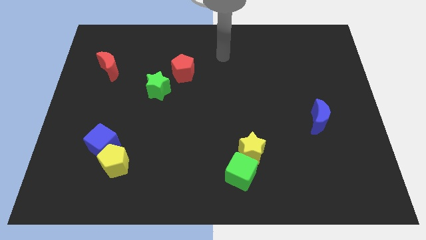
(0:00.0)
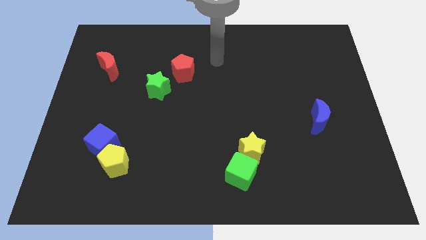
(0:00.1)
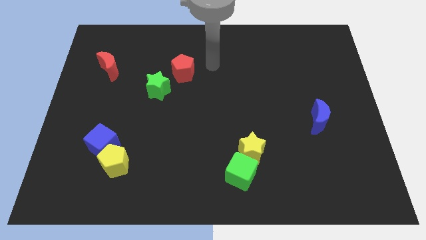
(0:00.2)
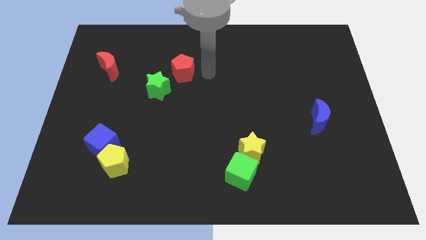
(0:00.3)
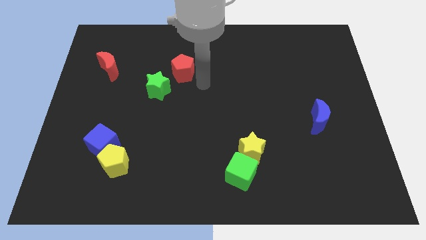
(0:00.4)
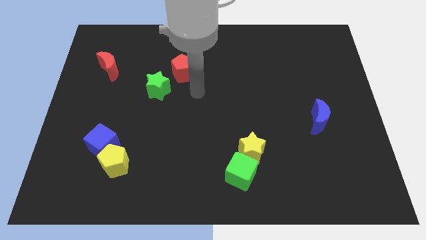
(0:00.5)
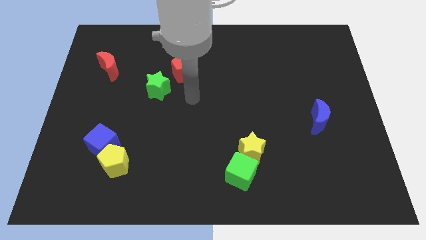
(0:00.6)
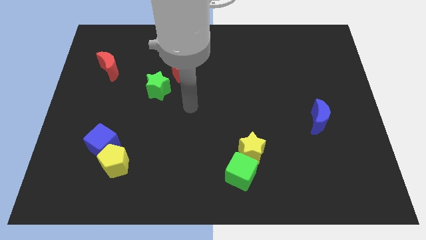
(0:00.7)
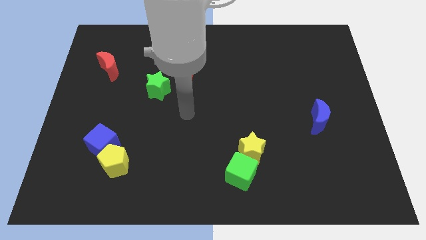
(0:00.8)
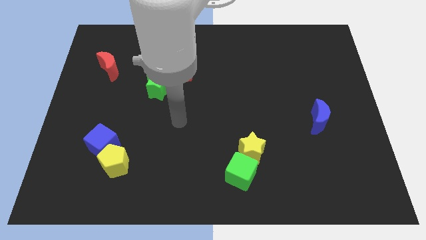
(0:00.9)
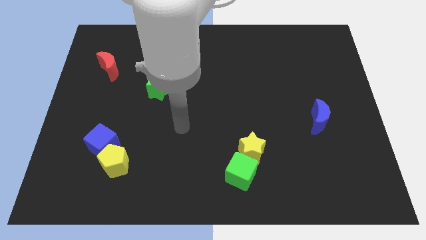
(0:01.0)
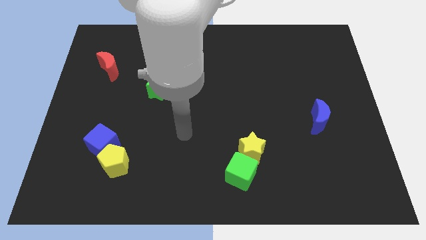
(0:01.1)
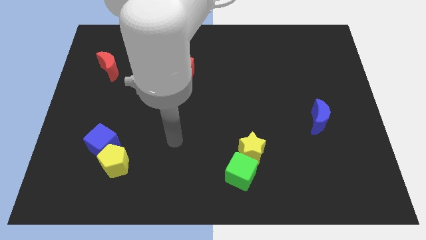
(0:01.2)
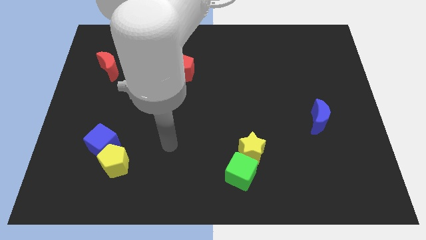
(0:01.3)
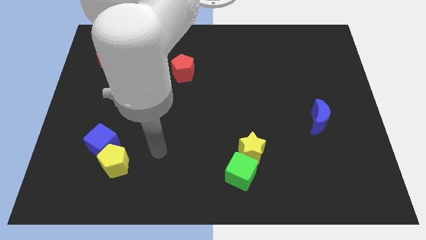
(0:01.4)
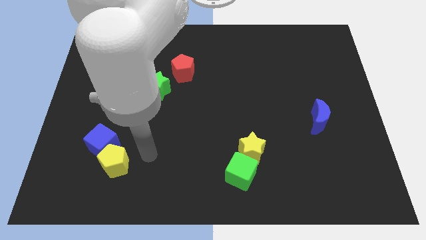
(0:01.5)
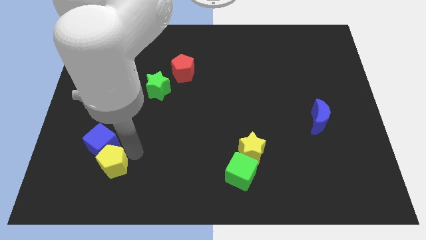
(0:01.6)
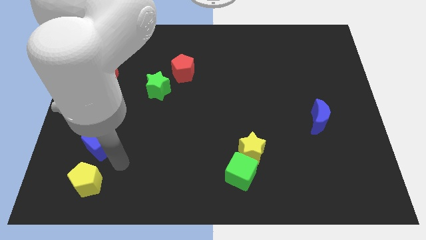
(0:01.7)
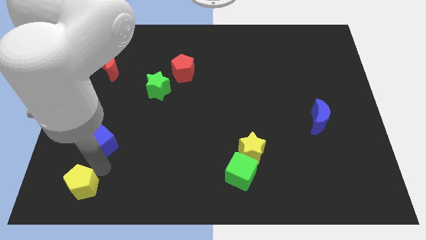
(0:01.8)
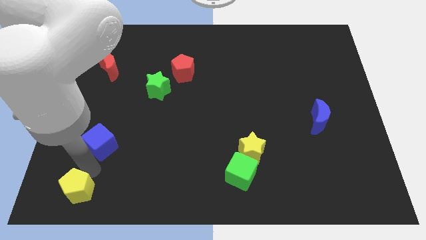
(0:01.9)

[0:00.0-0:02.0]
move the blue cube away from the yellow pentagon

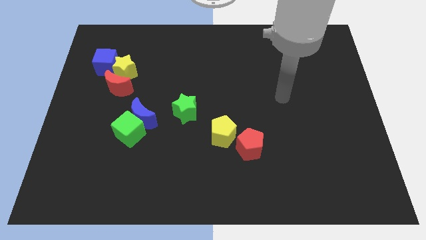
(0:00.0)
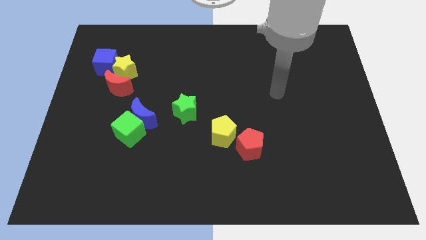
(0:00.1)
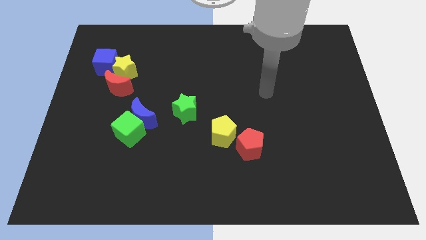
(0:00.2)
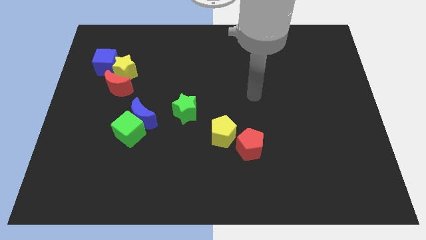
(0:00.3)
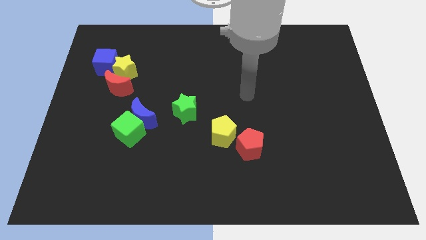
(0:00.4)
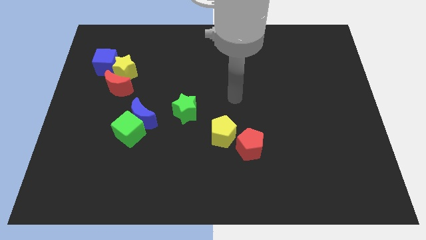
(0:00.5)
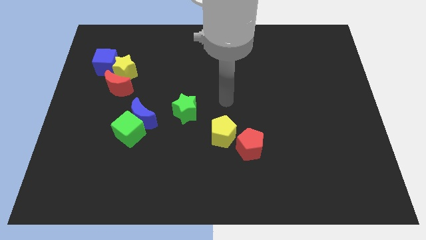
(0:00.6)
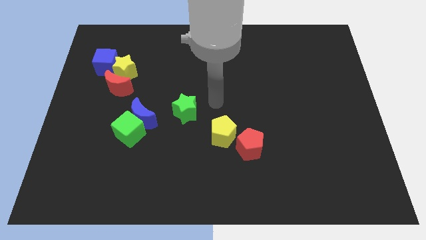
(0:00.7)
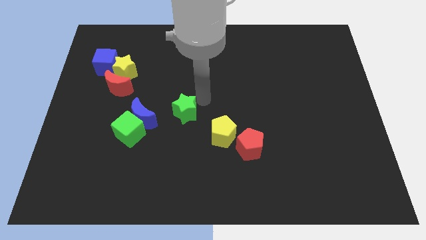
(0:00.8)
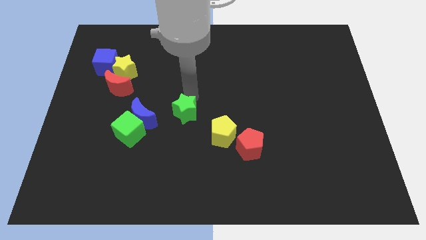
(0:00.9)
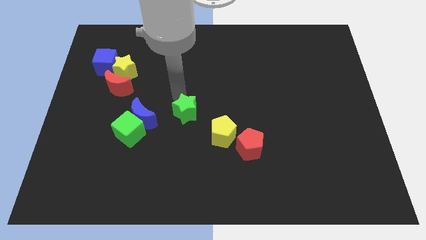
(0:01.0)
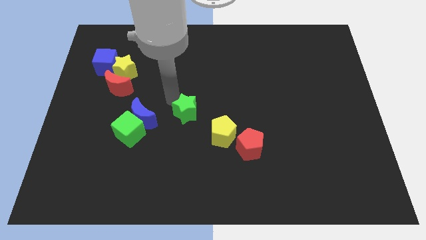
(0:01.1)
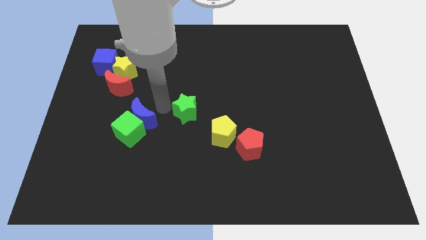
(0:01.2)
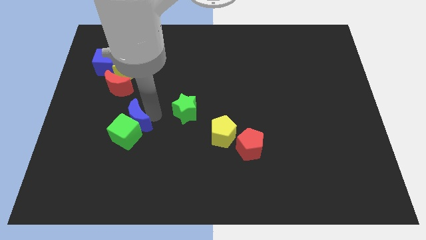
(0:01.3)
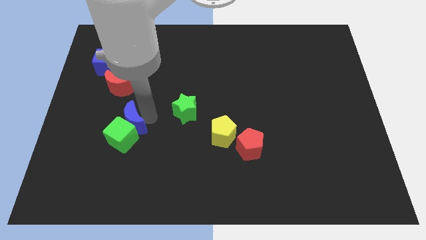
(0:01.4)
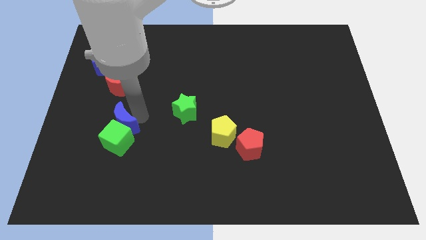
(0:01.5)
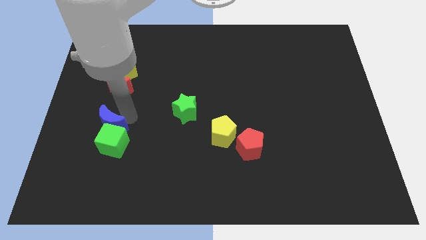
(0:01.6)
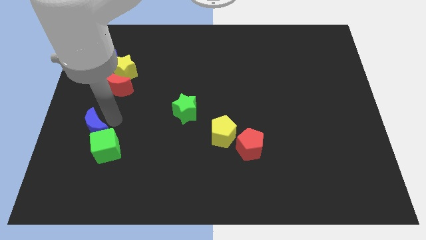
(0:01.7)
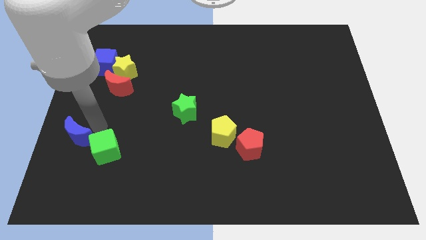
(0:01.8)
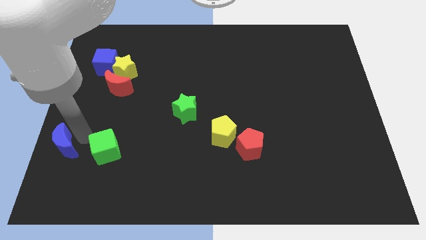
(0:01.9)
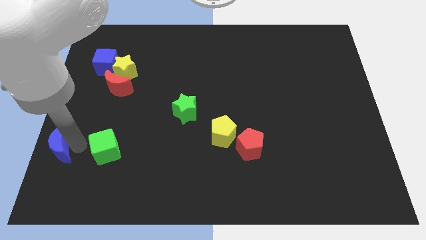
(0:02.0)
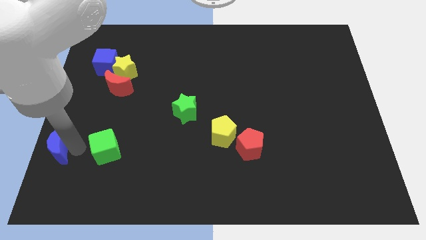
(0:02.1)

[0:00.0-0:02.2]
separate the green cube from the blue moon

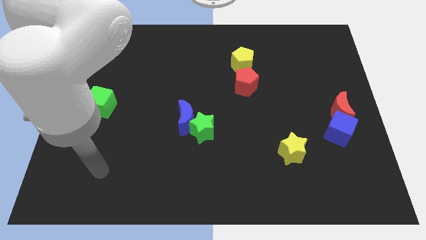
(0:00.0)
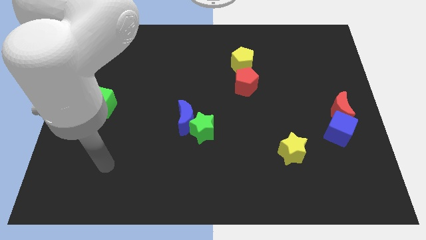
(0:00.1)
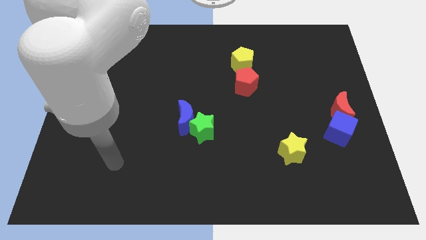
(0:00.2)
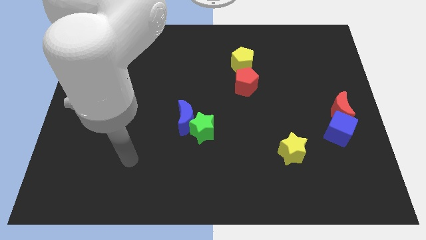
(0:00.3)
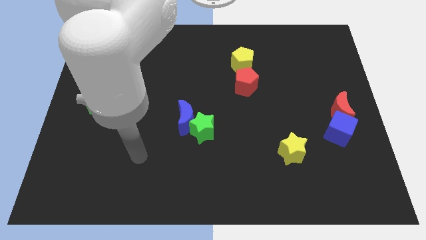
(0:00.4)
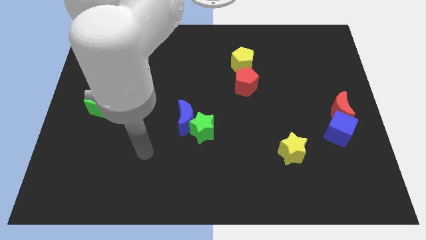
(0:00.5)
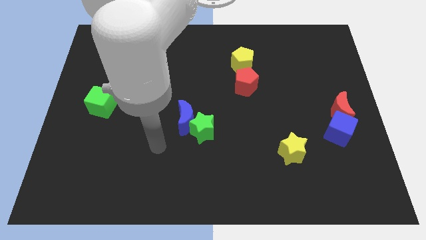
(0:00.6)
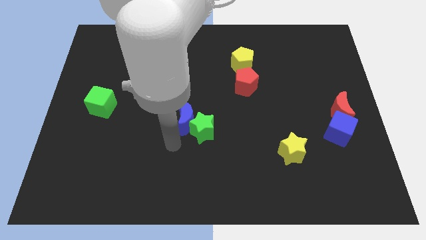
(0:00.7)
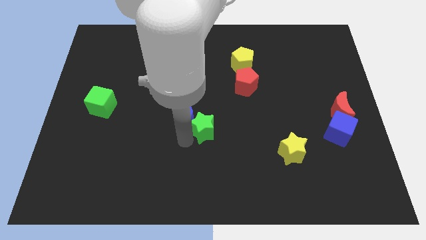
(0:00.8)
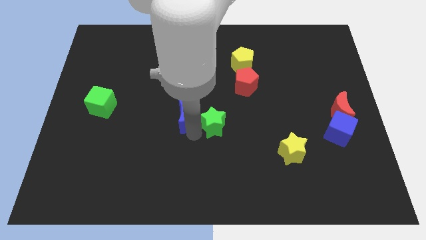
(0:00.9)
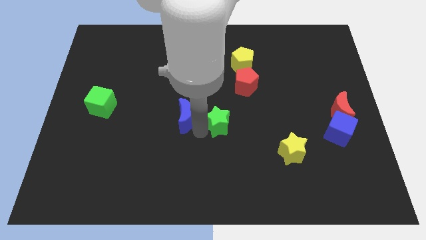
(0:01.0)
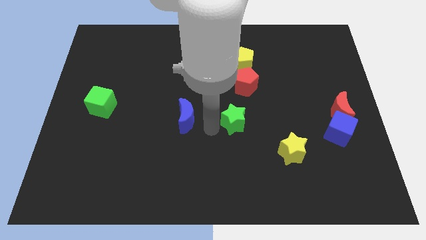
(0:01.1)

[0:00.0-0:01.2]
separate the blue moon from the green star

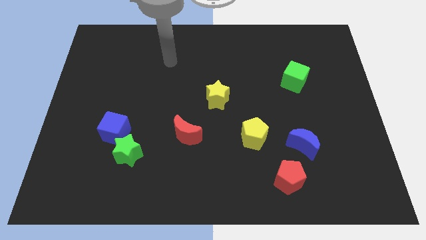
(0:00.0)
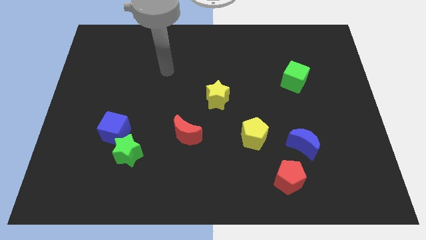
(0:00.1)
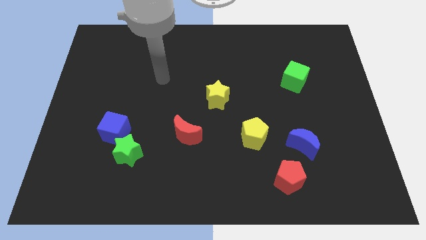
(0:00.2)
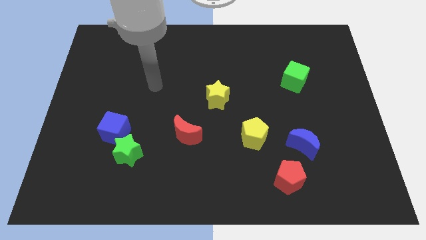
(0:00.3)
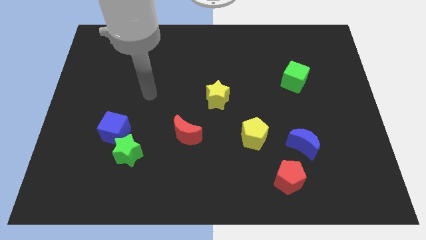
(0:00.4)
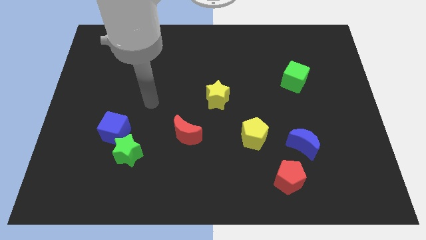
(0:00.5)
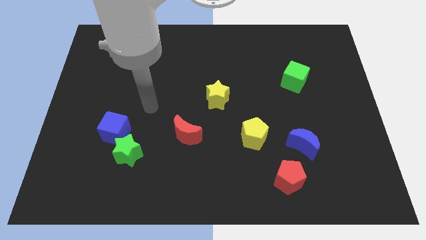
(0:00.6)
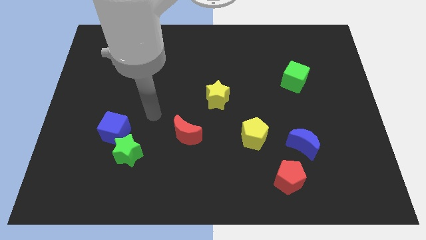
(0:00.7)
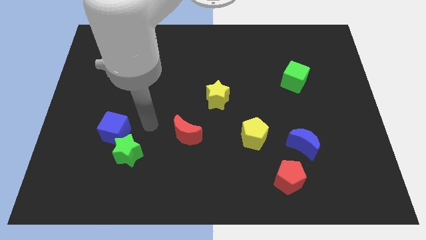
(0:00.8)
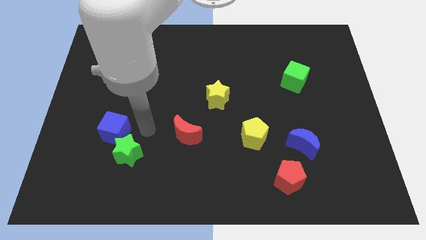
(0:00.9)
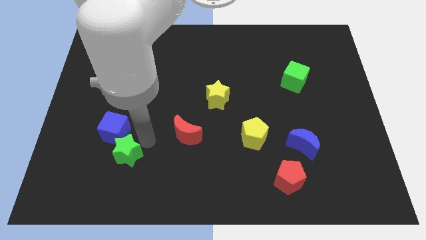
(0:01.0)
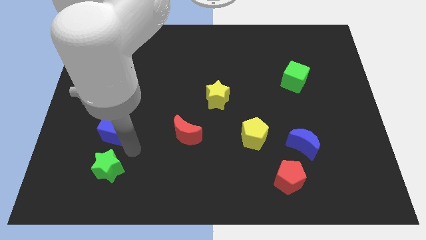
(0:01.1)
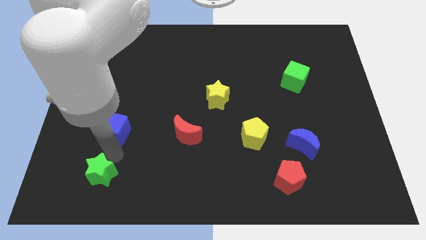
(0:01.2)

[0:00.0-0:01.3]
move the blue cube away from the green star

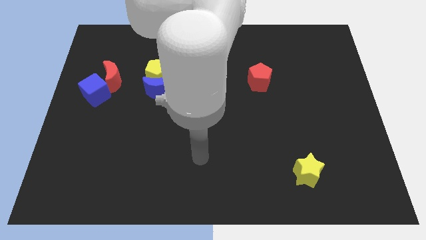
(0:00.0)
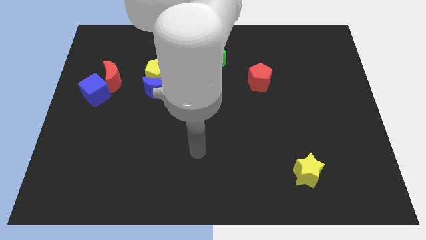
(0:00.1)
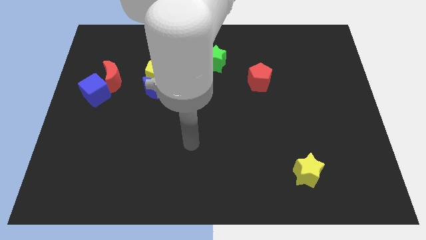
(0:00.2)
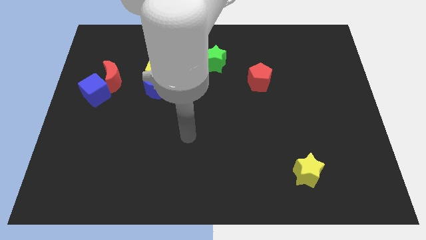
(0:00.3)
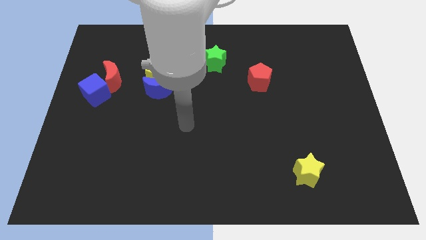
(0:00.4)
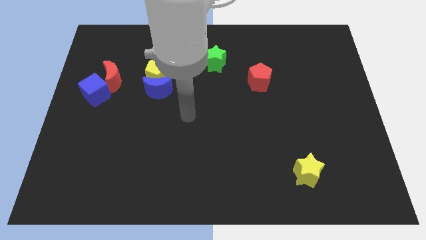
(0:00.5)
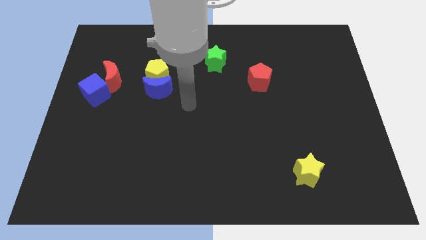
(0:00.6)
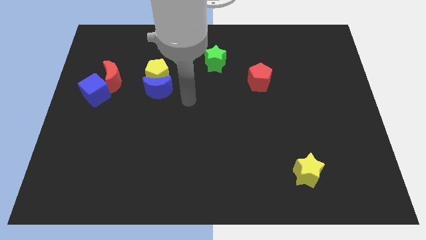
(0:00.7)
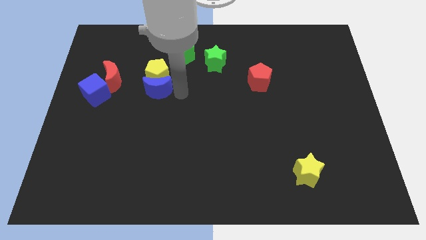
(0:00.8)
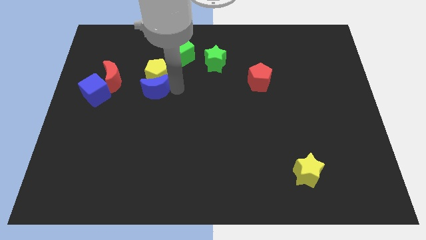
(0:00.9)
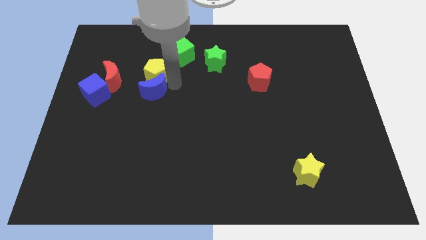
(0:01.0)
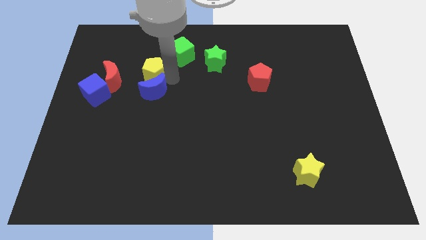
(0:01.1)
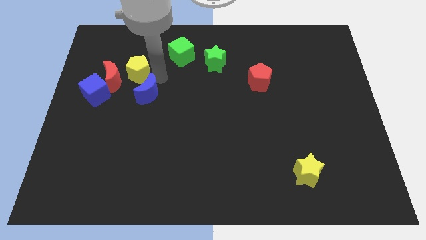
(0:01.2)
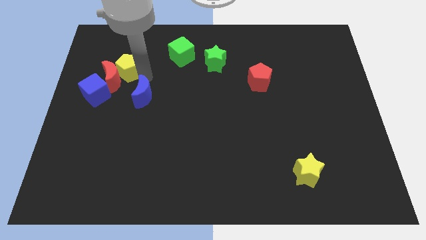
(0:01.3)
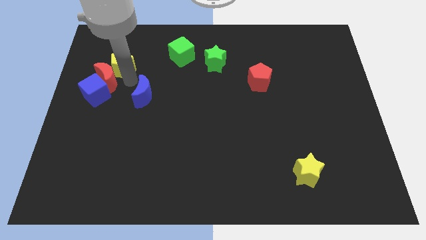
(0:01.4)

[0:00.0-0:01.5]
pull the blue moon apart from the yellow pentagon

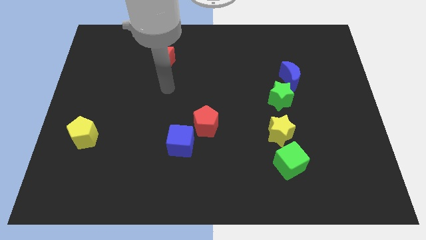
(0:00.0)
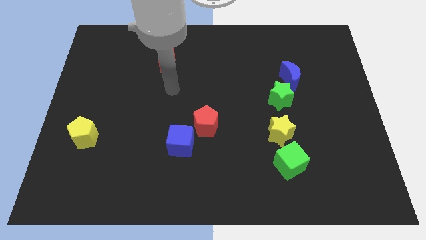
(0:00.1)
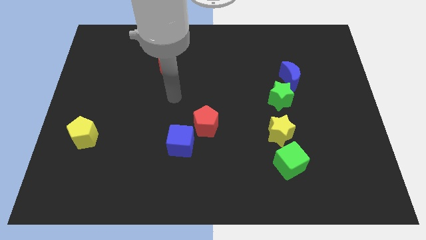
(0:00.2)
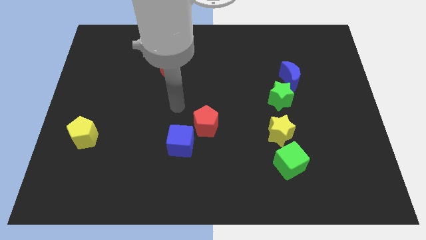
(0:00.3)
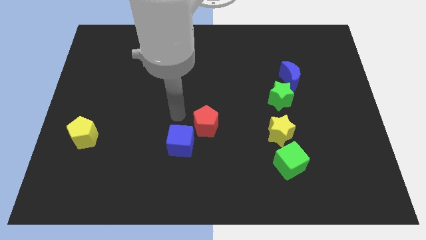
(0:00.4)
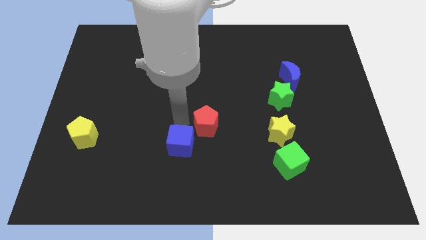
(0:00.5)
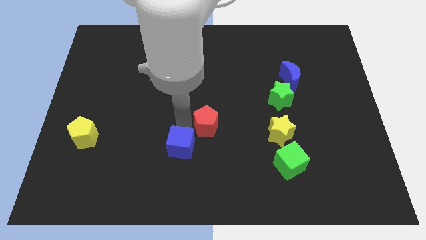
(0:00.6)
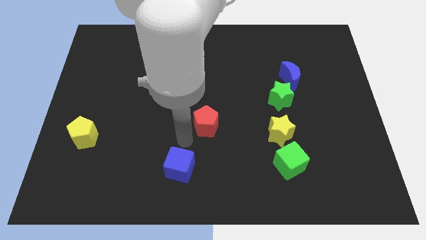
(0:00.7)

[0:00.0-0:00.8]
move the red pentagon away from the blue cube

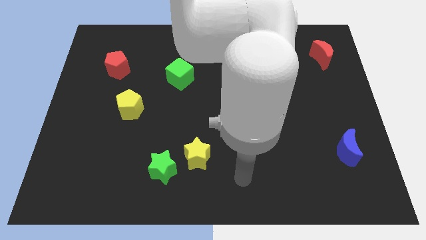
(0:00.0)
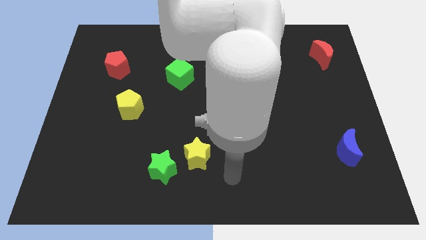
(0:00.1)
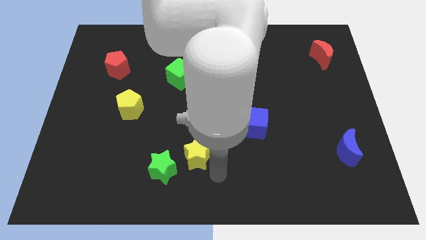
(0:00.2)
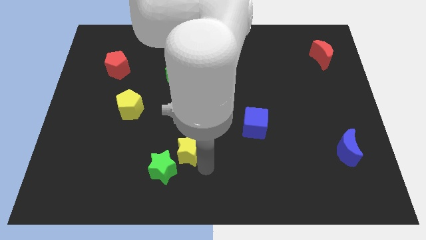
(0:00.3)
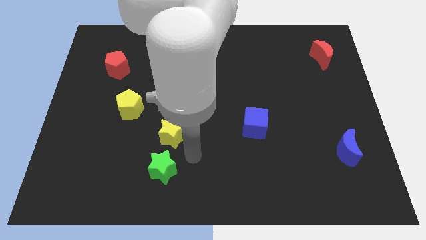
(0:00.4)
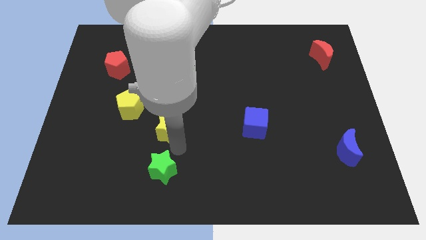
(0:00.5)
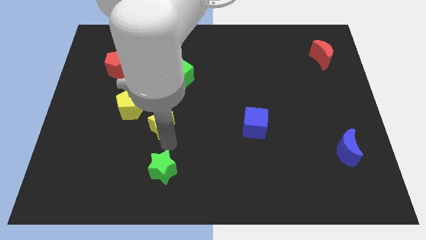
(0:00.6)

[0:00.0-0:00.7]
move the green star away from the yellow star
